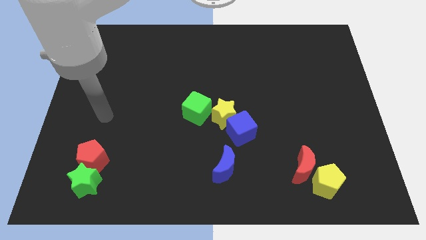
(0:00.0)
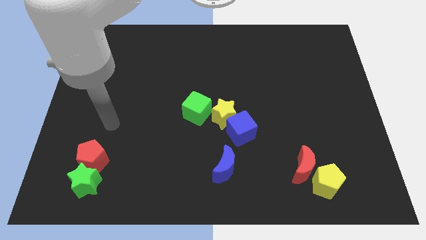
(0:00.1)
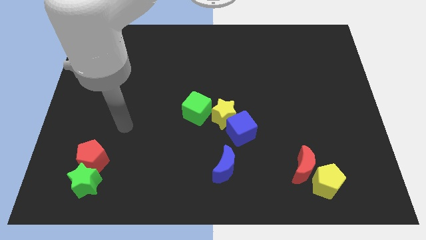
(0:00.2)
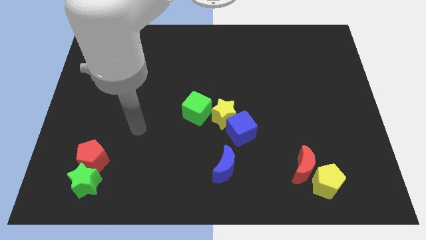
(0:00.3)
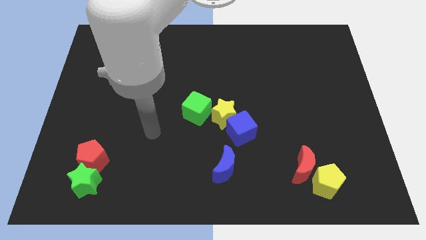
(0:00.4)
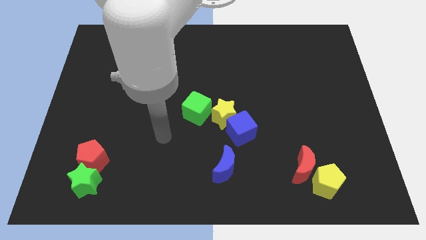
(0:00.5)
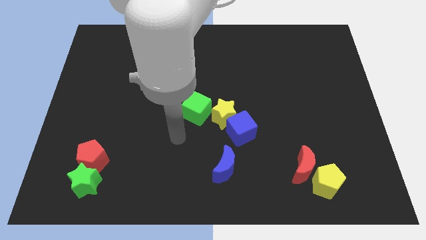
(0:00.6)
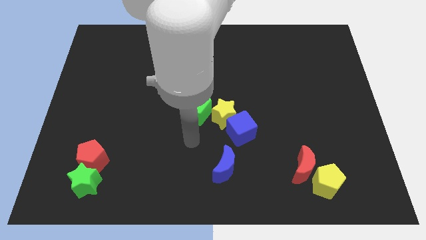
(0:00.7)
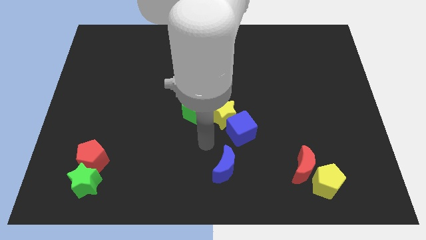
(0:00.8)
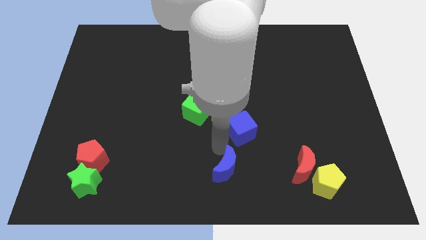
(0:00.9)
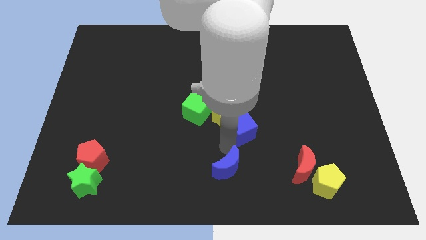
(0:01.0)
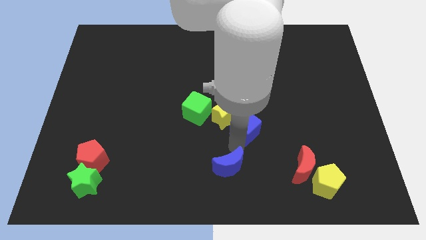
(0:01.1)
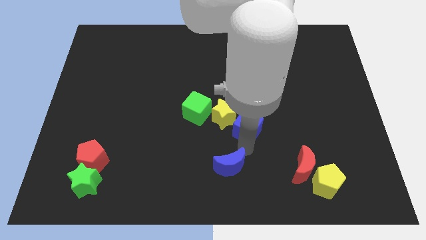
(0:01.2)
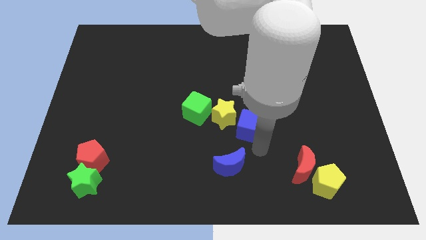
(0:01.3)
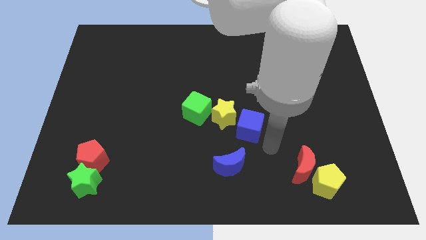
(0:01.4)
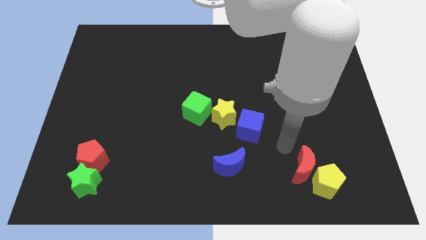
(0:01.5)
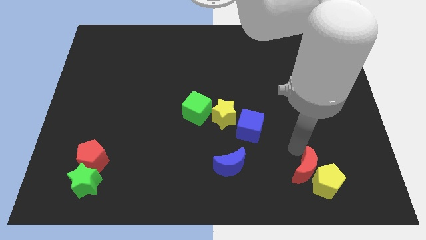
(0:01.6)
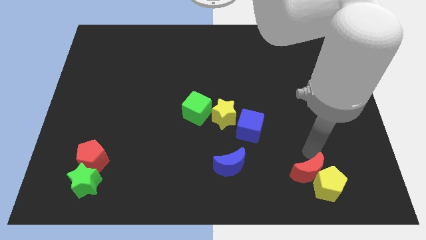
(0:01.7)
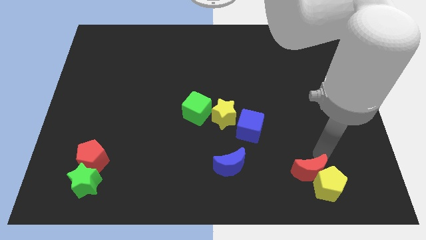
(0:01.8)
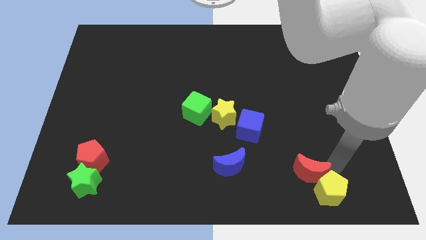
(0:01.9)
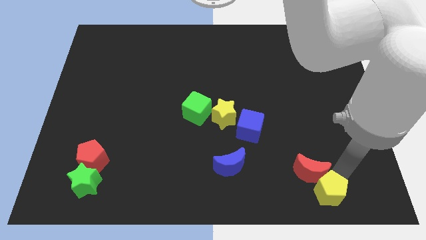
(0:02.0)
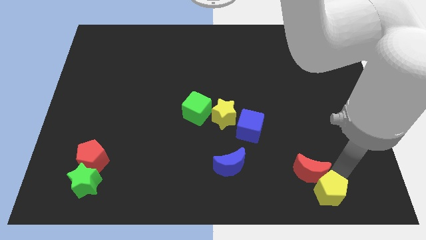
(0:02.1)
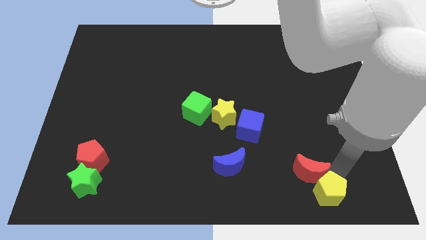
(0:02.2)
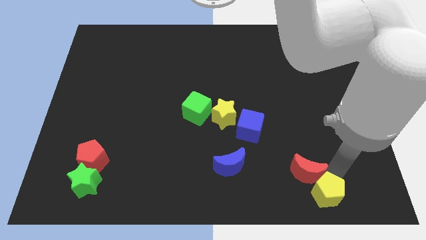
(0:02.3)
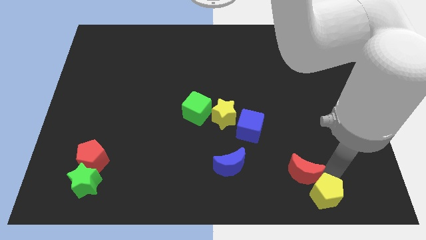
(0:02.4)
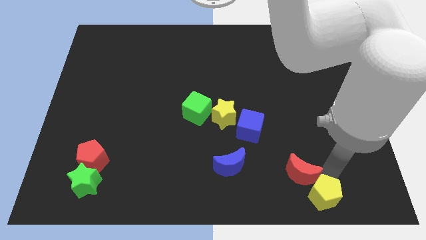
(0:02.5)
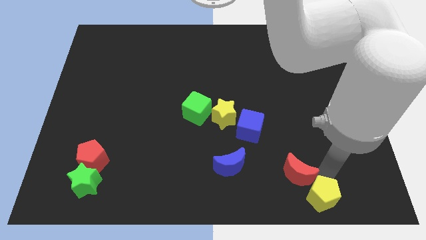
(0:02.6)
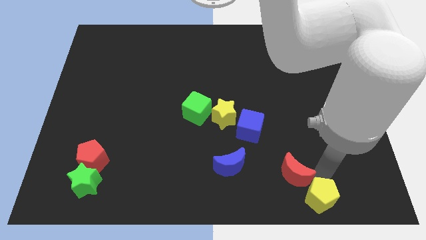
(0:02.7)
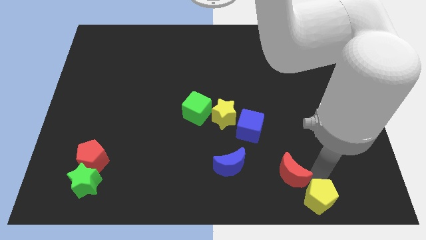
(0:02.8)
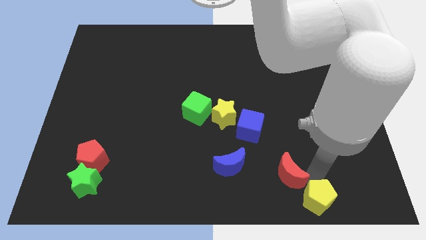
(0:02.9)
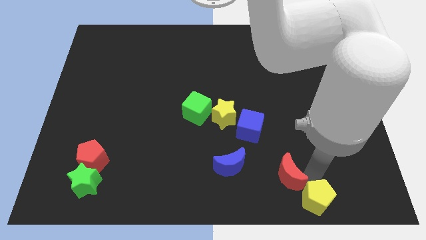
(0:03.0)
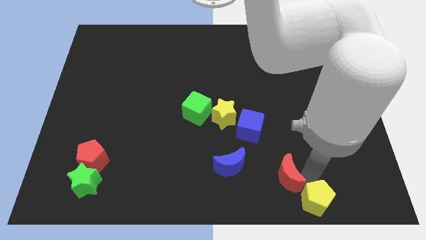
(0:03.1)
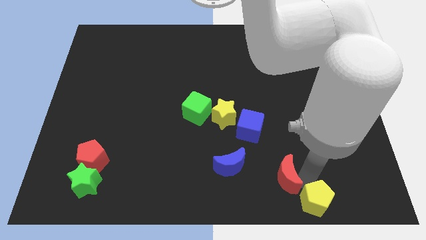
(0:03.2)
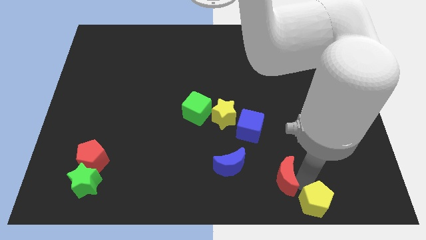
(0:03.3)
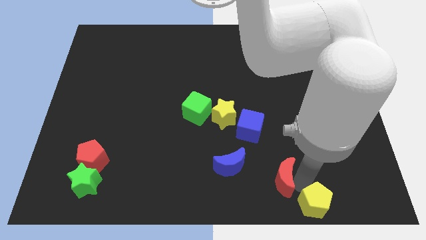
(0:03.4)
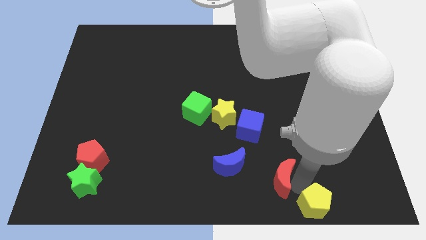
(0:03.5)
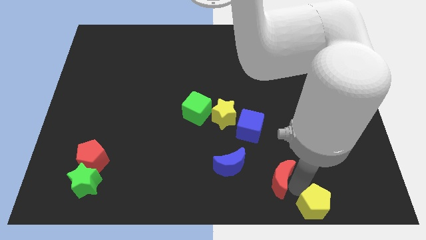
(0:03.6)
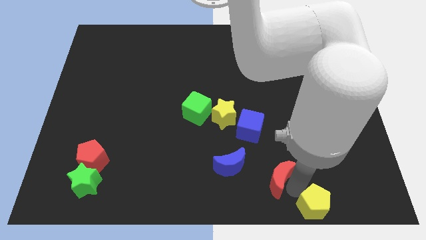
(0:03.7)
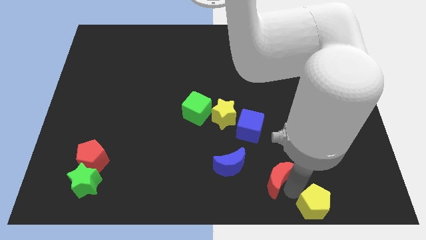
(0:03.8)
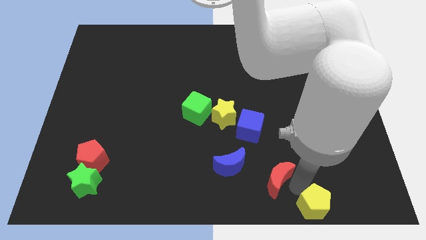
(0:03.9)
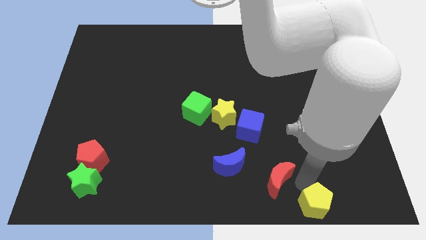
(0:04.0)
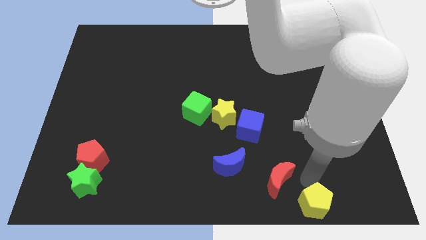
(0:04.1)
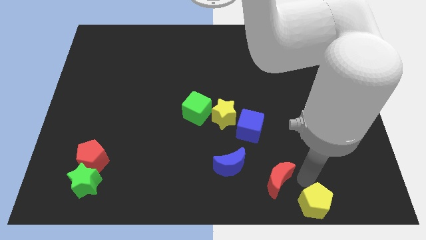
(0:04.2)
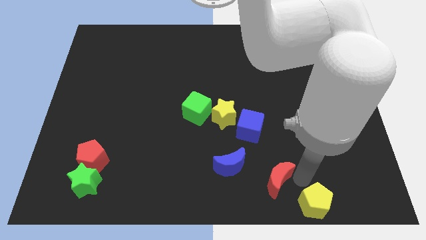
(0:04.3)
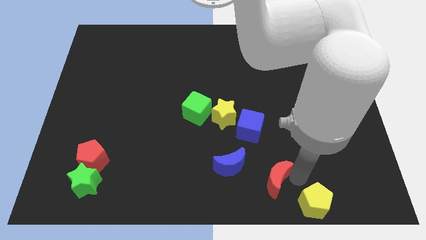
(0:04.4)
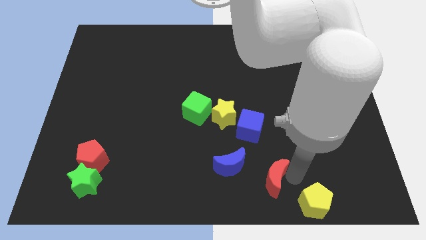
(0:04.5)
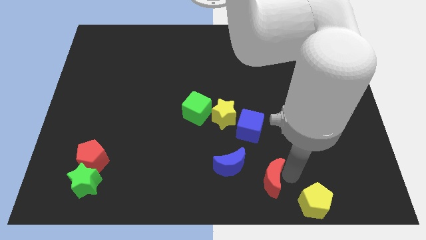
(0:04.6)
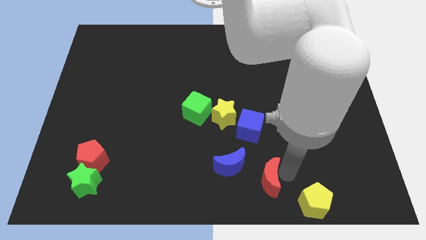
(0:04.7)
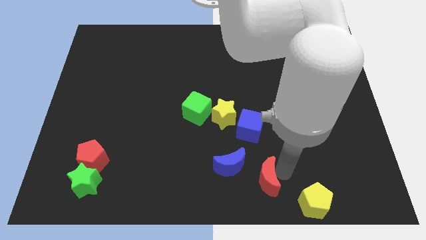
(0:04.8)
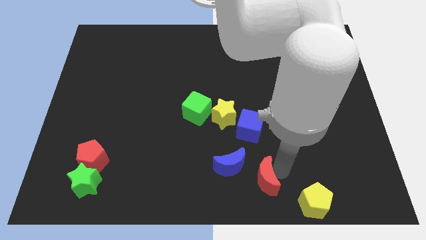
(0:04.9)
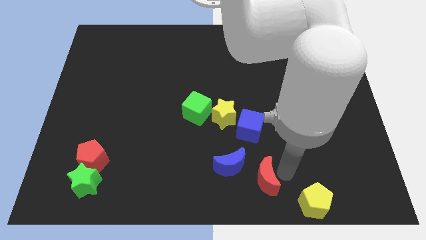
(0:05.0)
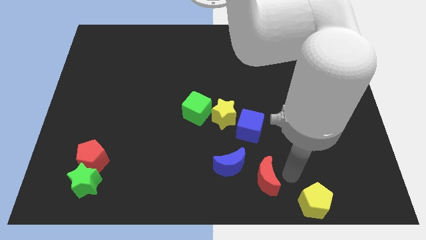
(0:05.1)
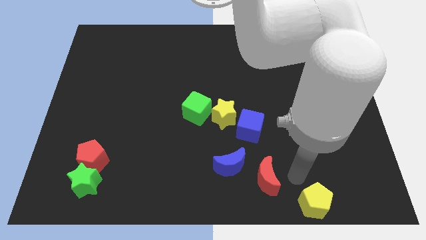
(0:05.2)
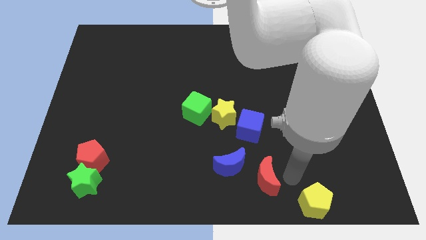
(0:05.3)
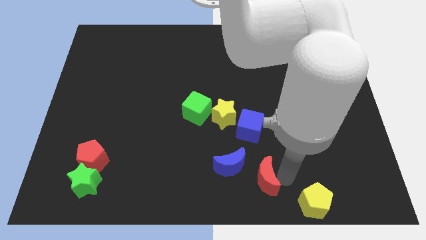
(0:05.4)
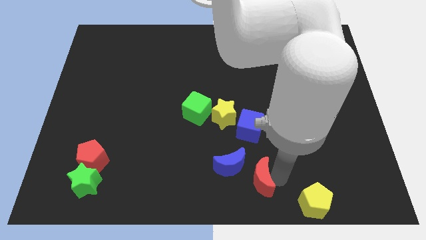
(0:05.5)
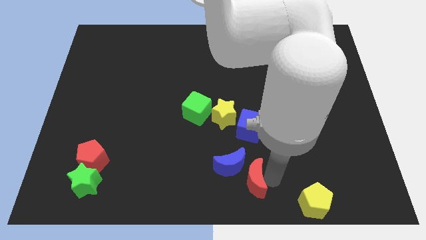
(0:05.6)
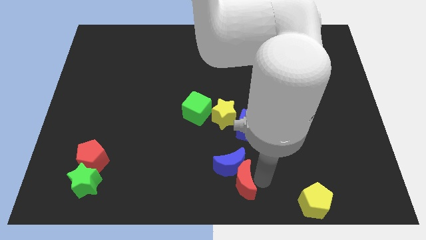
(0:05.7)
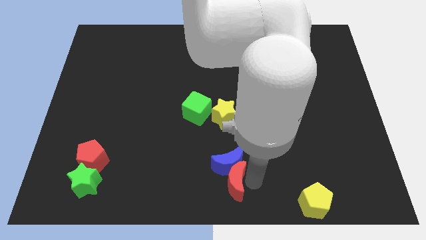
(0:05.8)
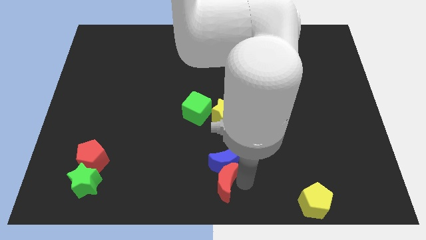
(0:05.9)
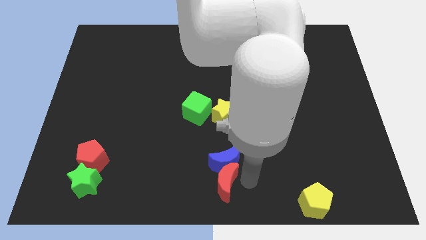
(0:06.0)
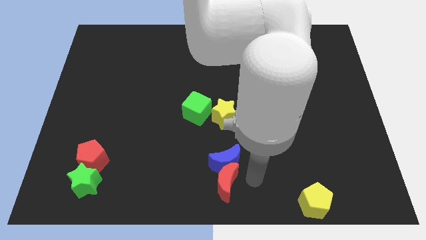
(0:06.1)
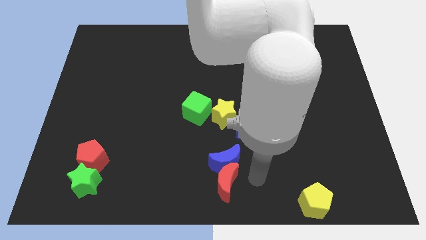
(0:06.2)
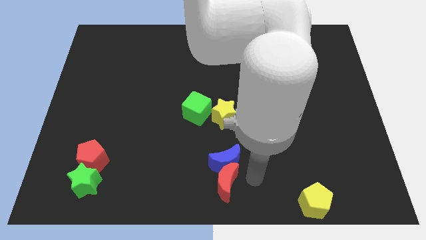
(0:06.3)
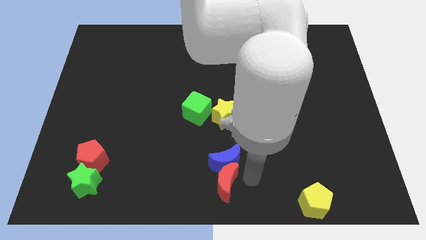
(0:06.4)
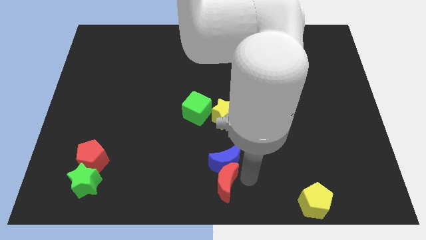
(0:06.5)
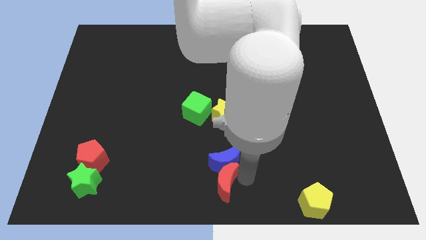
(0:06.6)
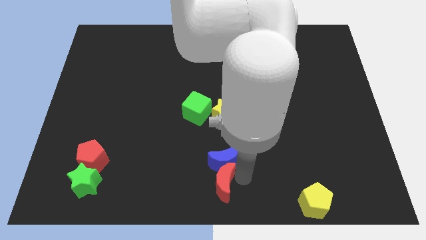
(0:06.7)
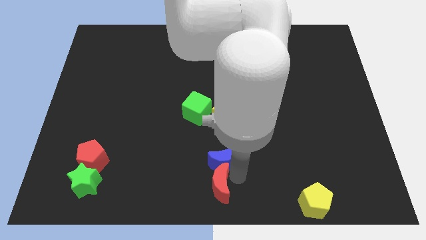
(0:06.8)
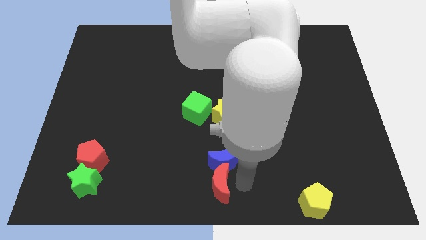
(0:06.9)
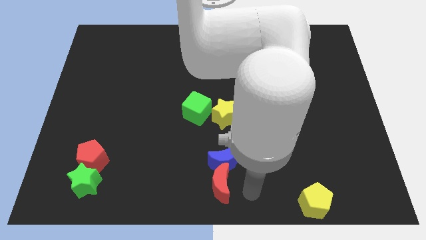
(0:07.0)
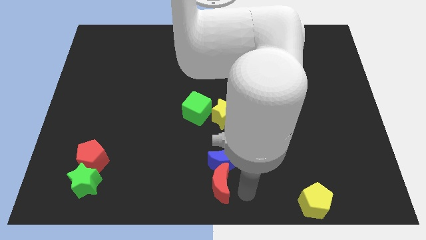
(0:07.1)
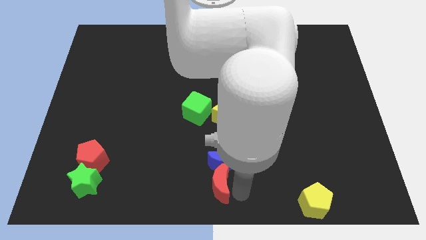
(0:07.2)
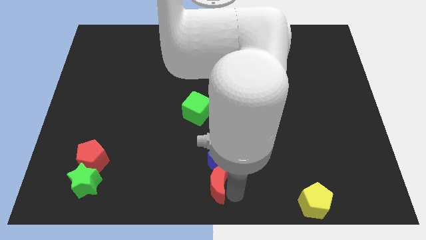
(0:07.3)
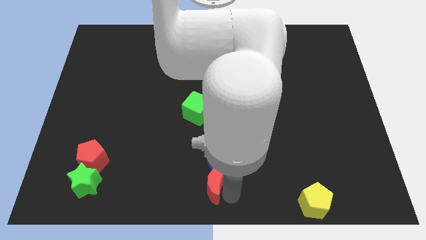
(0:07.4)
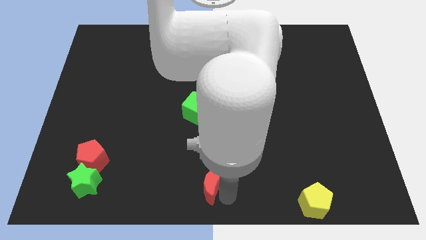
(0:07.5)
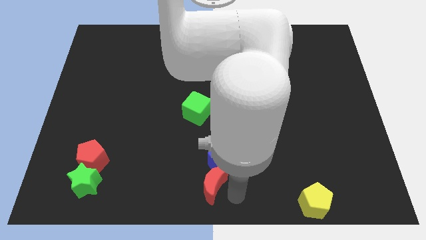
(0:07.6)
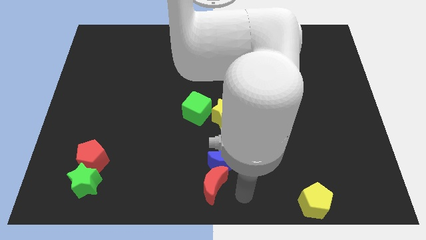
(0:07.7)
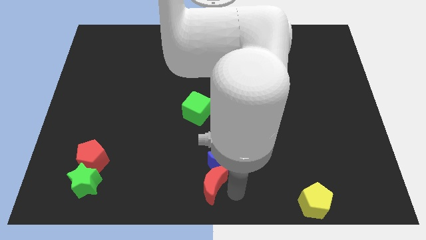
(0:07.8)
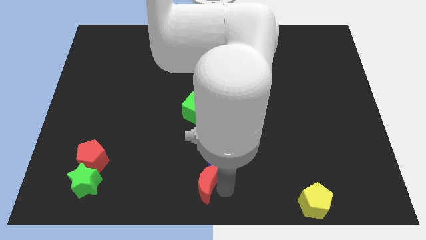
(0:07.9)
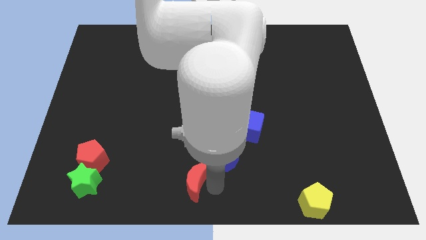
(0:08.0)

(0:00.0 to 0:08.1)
push the red moon left

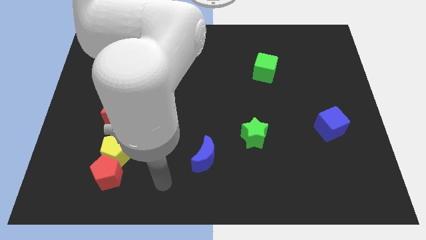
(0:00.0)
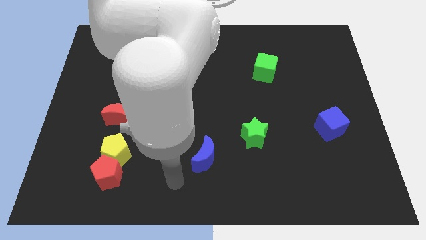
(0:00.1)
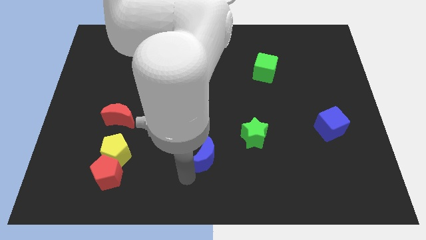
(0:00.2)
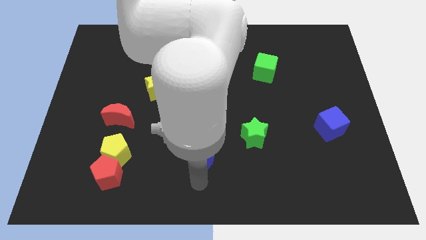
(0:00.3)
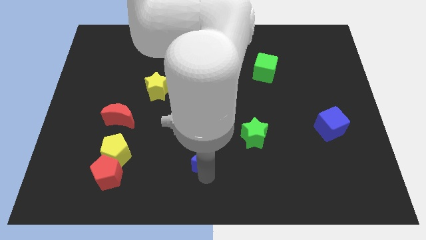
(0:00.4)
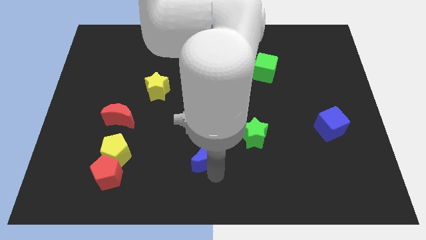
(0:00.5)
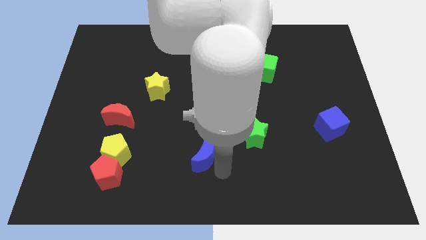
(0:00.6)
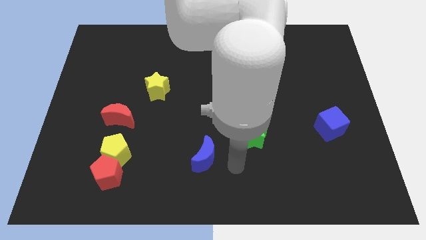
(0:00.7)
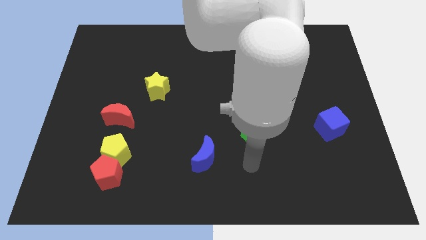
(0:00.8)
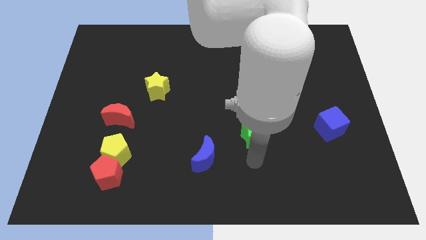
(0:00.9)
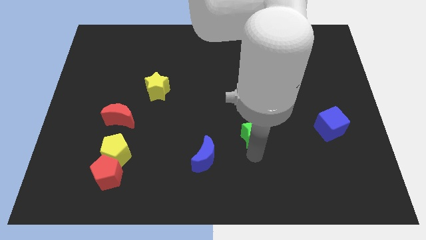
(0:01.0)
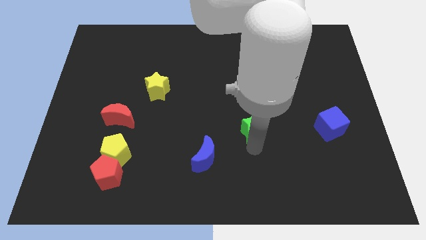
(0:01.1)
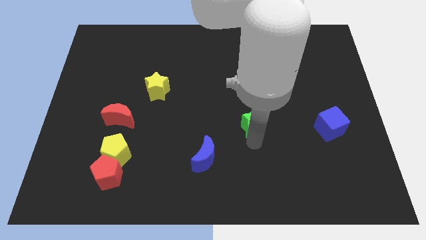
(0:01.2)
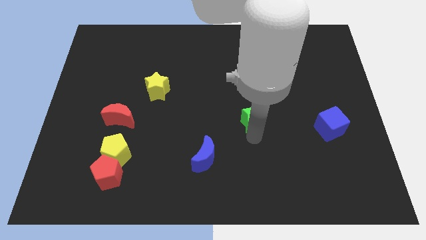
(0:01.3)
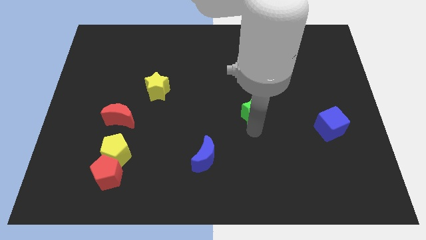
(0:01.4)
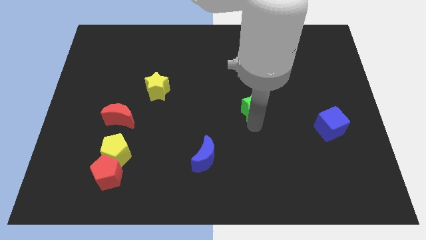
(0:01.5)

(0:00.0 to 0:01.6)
slightly push the green star up
